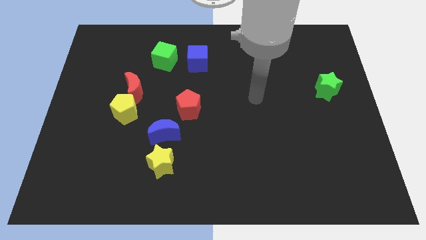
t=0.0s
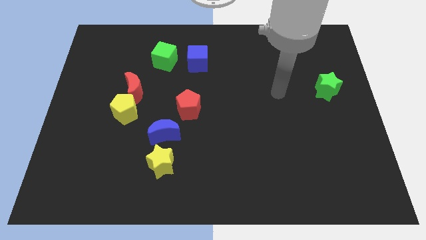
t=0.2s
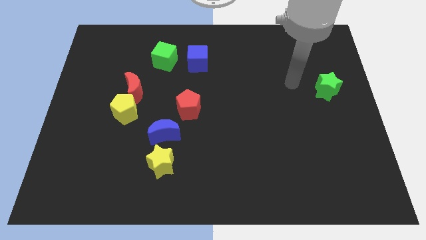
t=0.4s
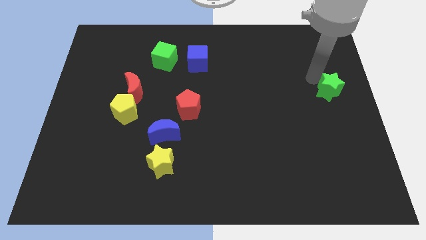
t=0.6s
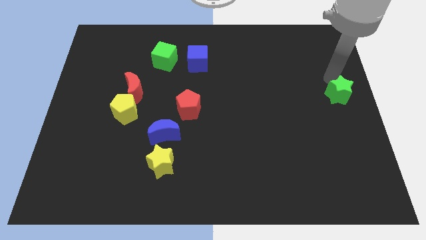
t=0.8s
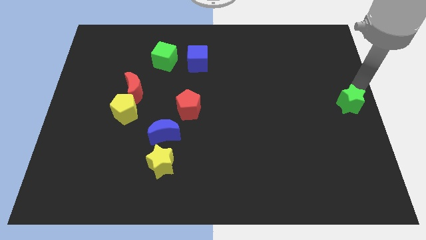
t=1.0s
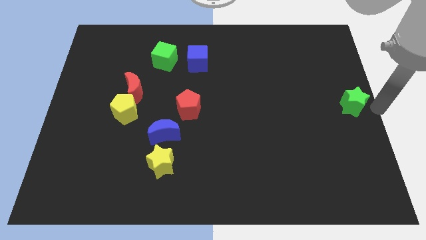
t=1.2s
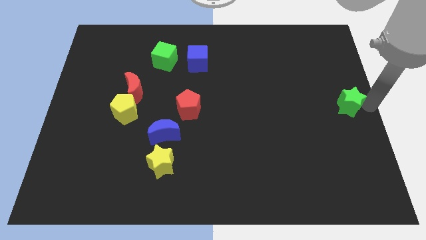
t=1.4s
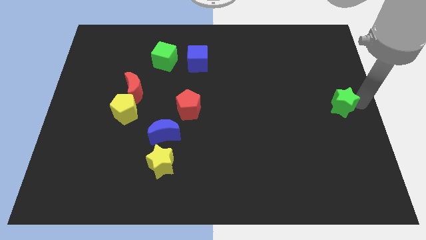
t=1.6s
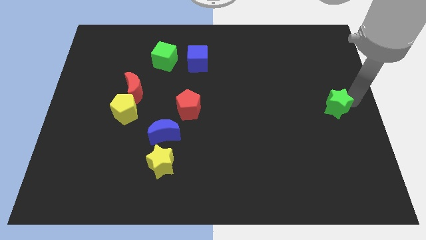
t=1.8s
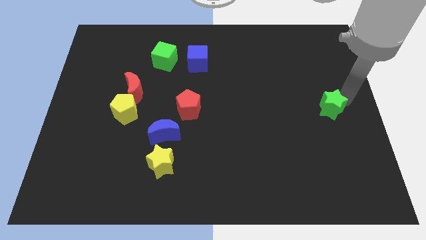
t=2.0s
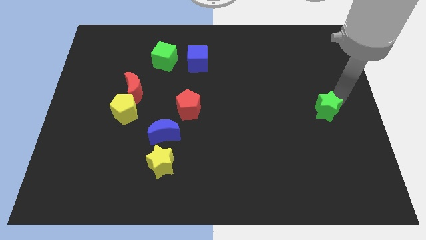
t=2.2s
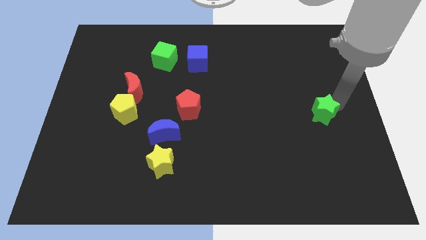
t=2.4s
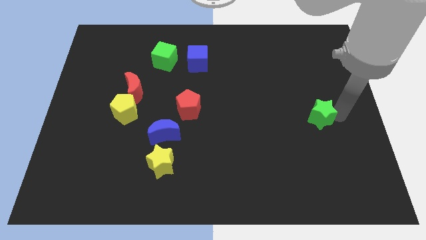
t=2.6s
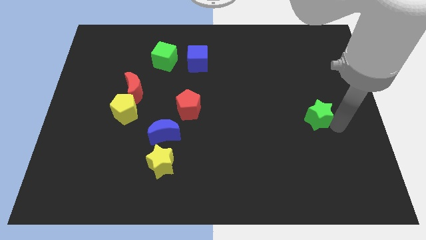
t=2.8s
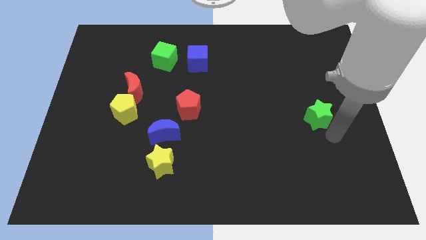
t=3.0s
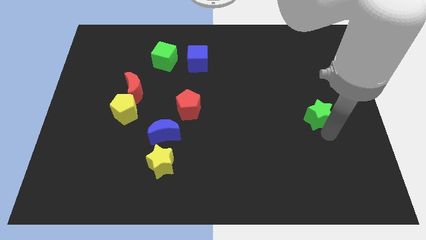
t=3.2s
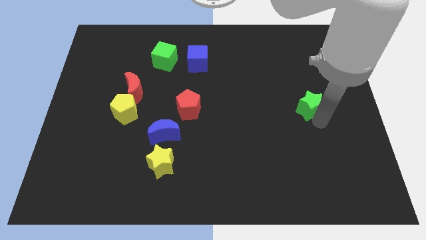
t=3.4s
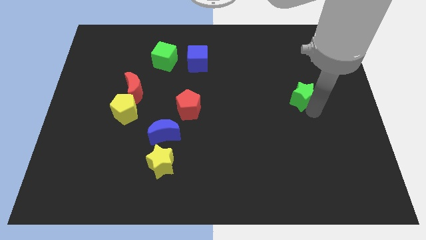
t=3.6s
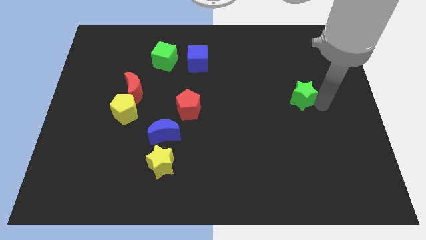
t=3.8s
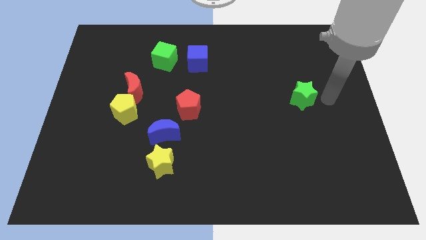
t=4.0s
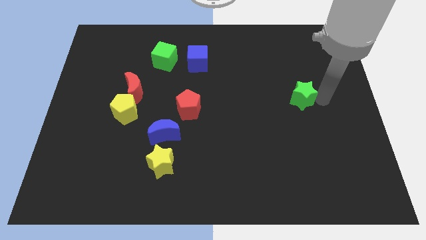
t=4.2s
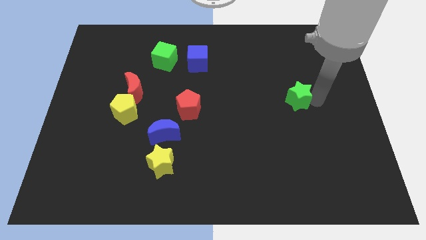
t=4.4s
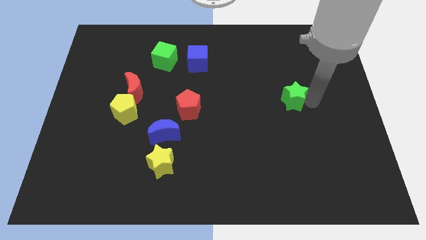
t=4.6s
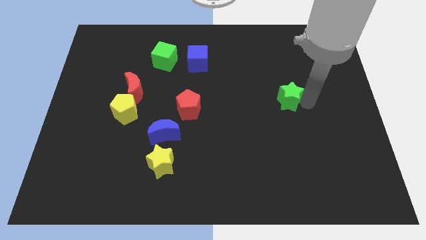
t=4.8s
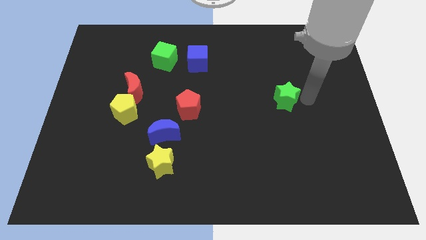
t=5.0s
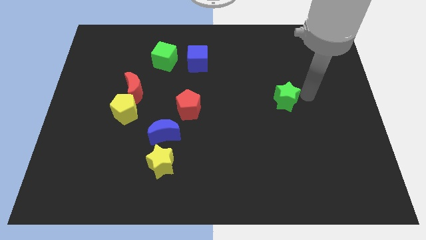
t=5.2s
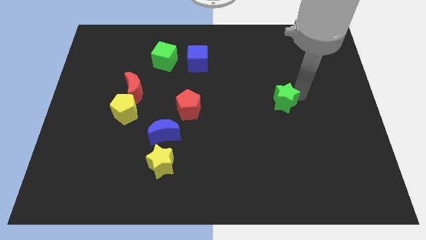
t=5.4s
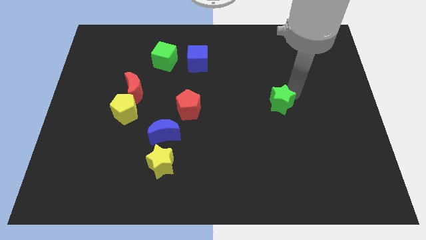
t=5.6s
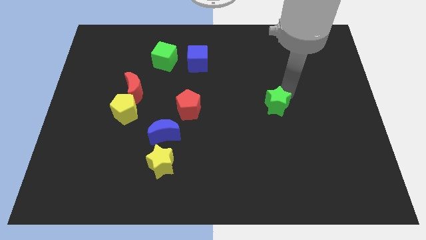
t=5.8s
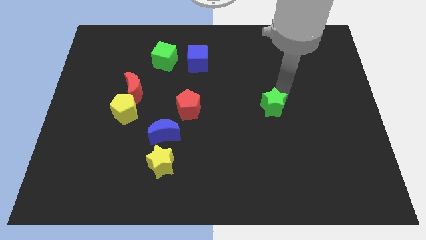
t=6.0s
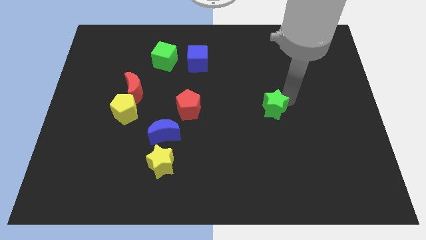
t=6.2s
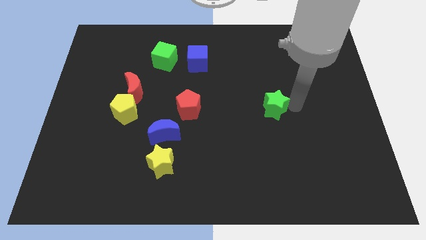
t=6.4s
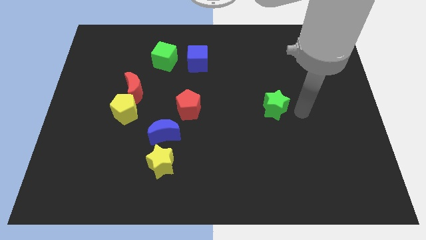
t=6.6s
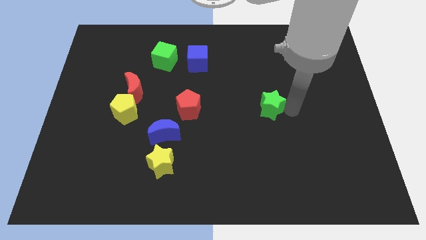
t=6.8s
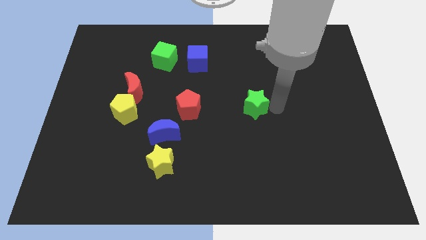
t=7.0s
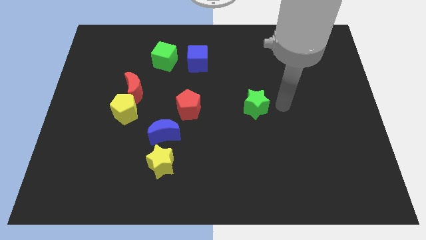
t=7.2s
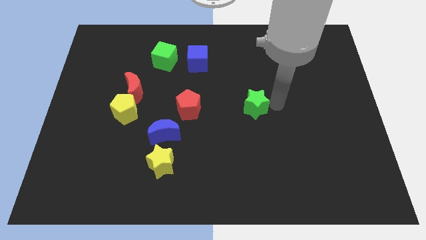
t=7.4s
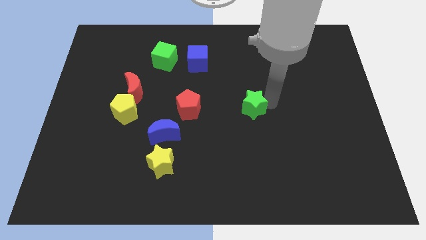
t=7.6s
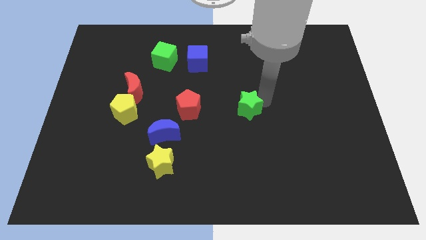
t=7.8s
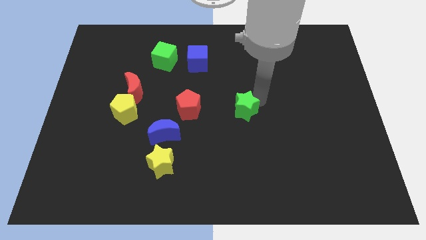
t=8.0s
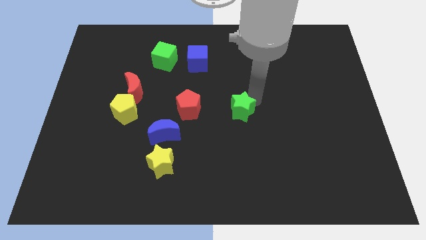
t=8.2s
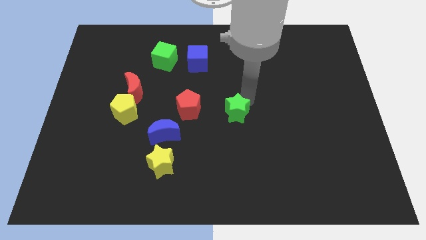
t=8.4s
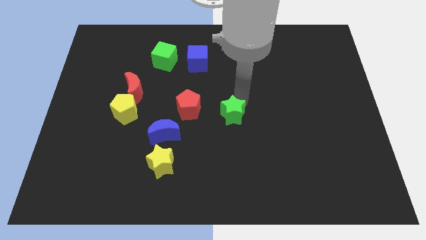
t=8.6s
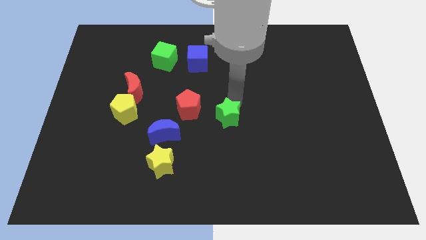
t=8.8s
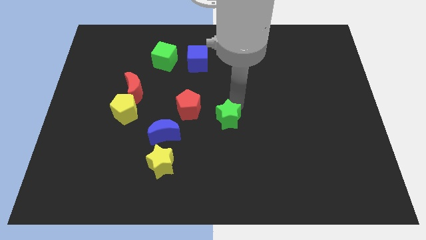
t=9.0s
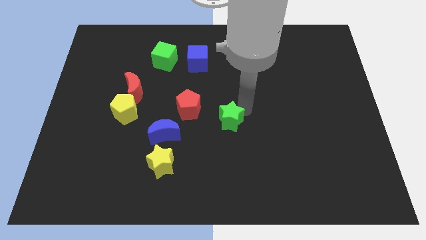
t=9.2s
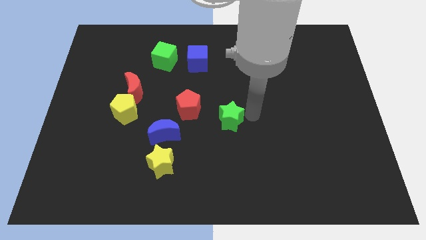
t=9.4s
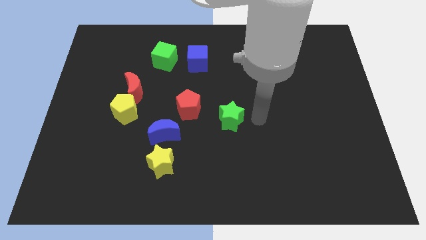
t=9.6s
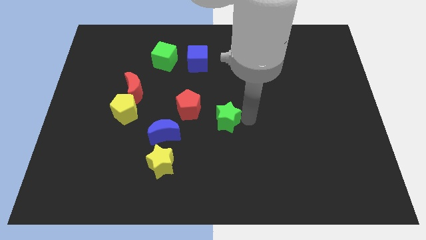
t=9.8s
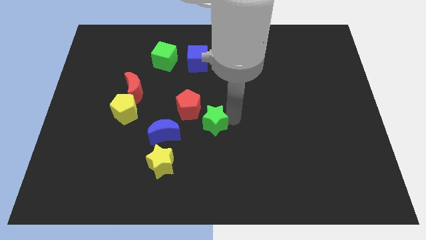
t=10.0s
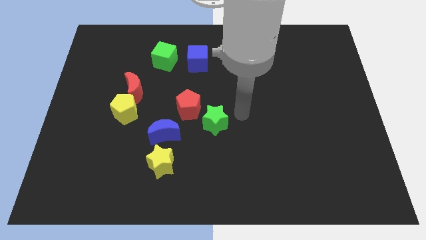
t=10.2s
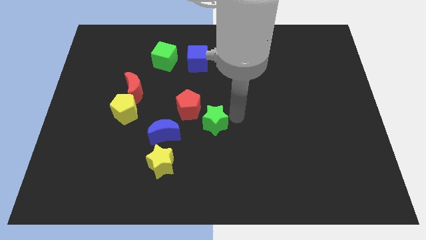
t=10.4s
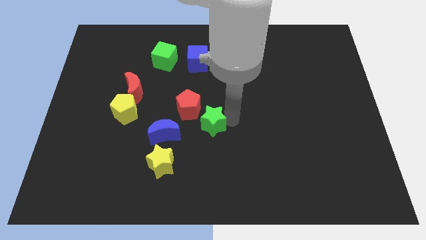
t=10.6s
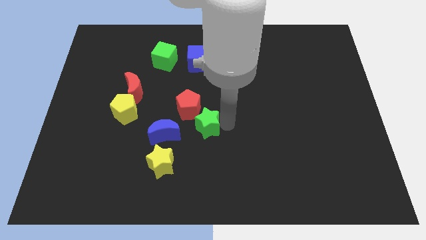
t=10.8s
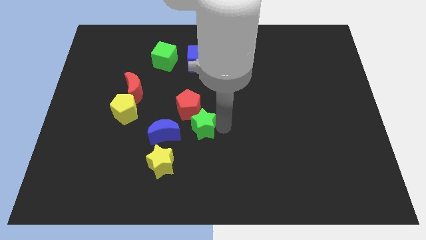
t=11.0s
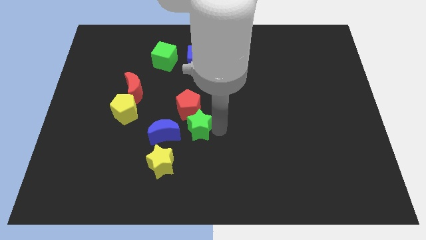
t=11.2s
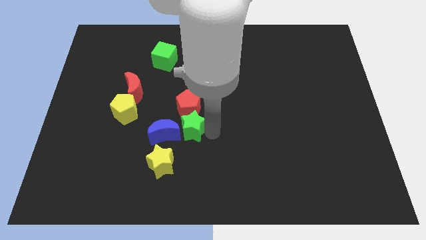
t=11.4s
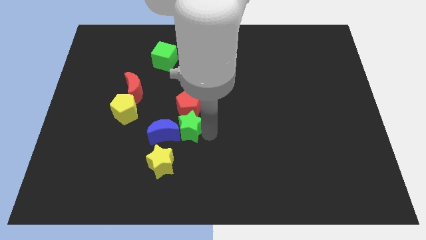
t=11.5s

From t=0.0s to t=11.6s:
slide the green star towards the blue moon

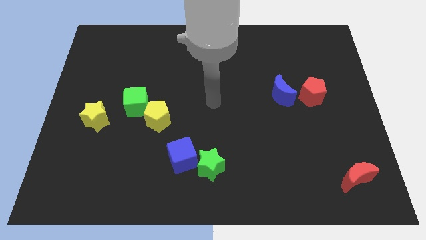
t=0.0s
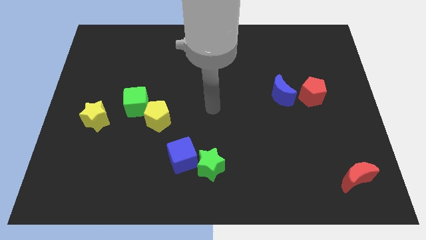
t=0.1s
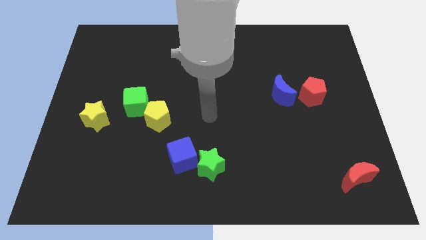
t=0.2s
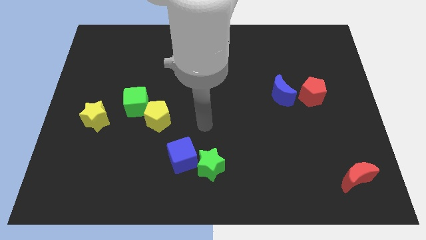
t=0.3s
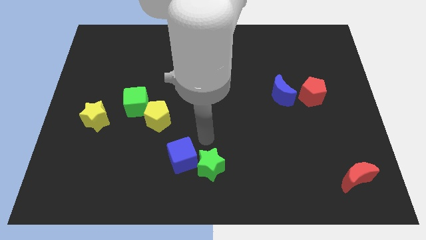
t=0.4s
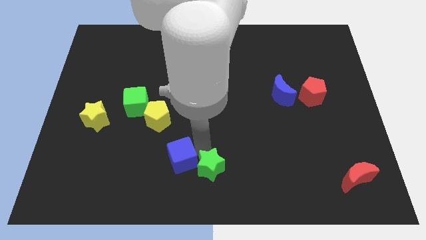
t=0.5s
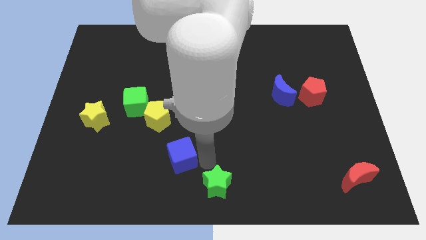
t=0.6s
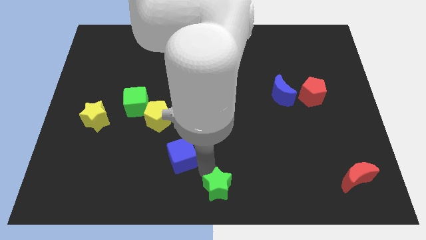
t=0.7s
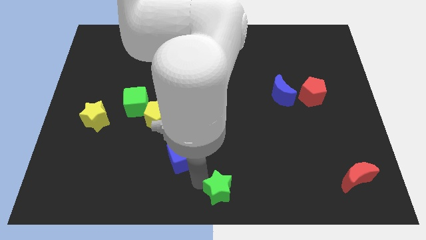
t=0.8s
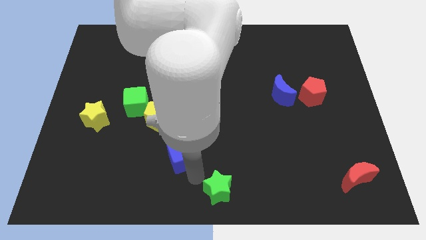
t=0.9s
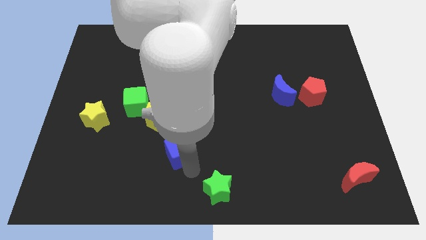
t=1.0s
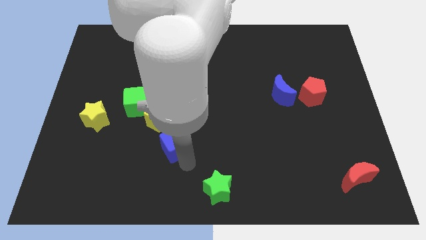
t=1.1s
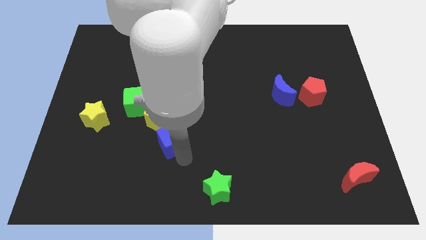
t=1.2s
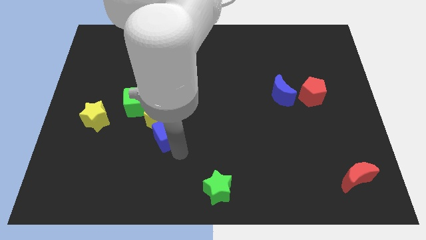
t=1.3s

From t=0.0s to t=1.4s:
push the blue cube close to the yellow pentagon

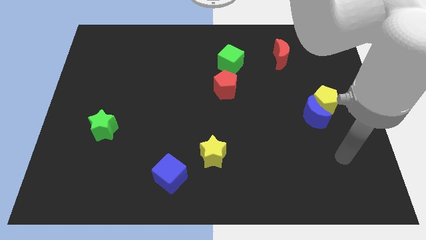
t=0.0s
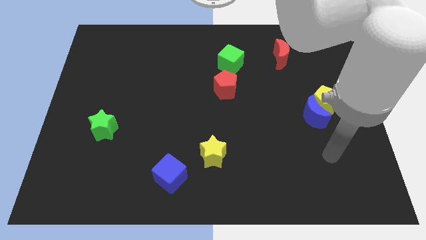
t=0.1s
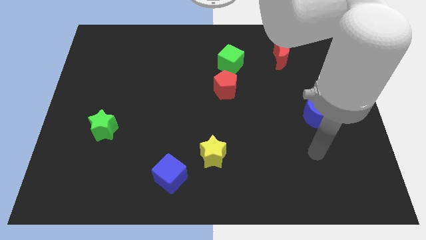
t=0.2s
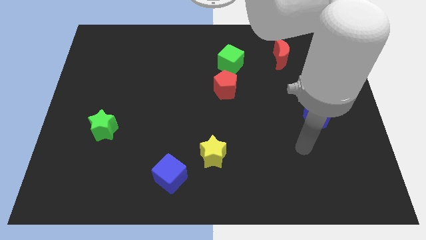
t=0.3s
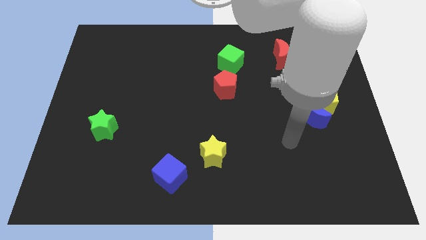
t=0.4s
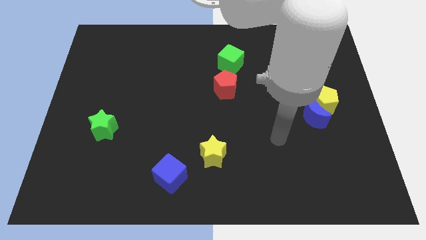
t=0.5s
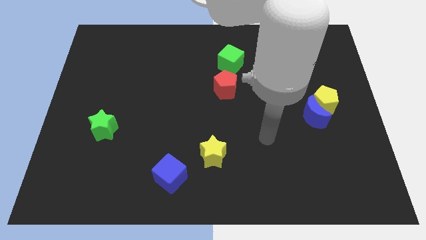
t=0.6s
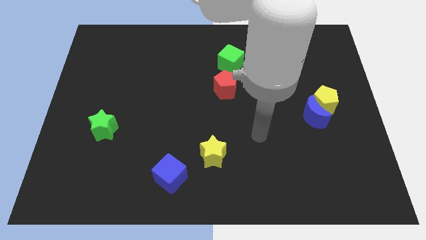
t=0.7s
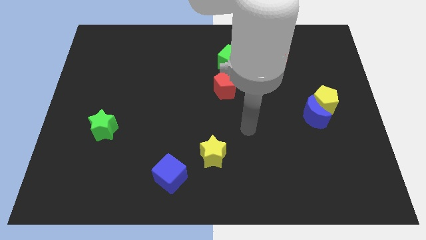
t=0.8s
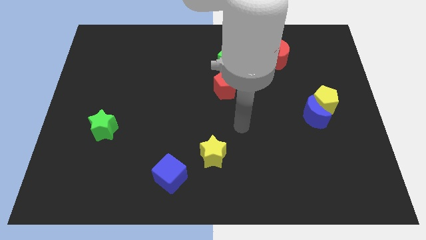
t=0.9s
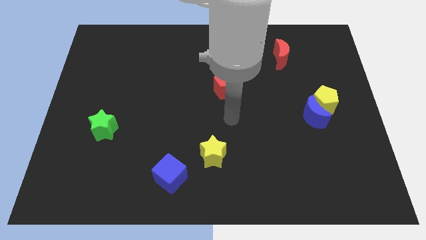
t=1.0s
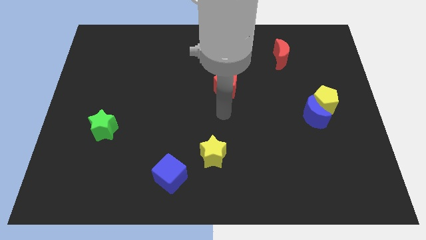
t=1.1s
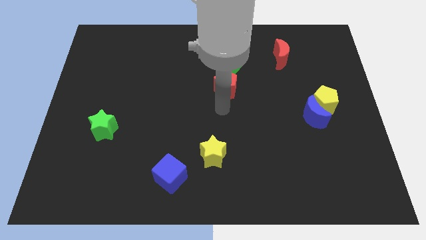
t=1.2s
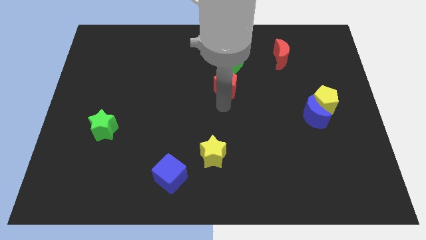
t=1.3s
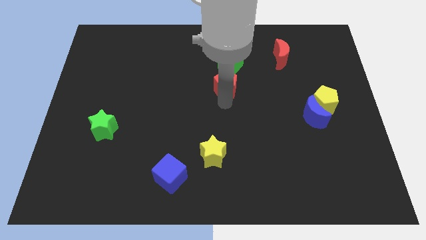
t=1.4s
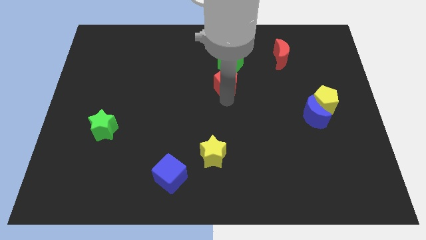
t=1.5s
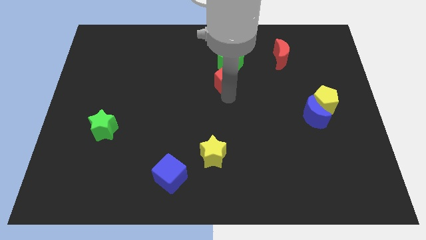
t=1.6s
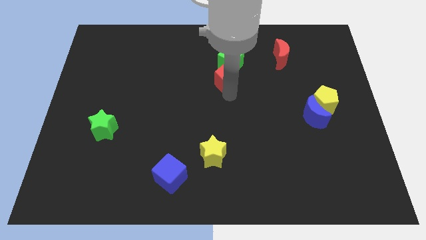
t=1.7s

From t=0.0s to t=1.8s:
move the red pentagon close to the green cube
